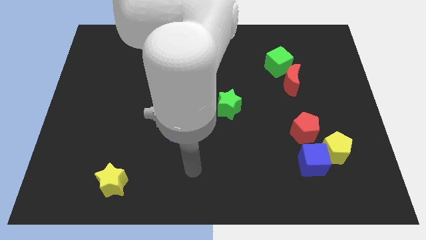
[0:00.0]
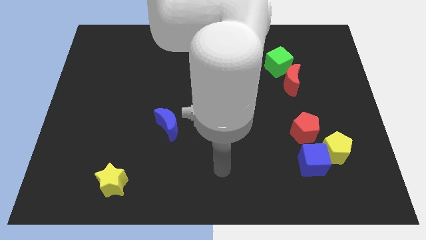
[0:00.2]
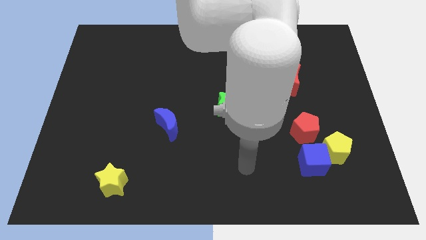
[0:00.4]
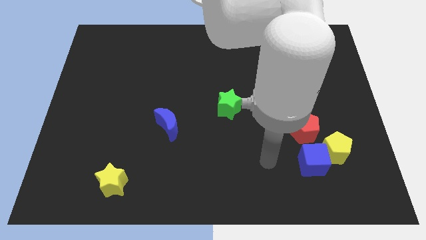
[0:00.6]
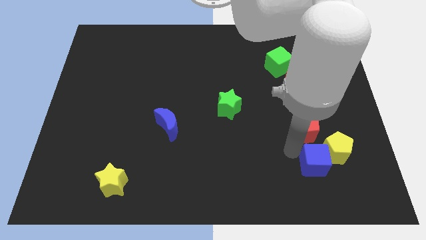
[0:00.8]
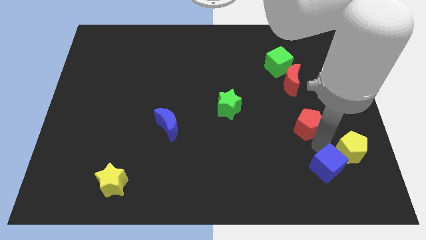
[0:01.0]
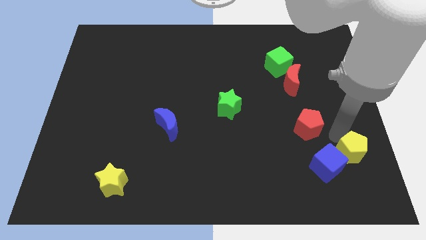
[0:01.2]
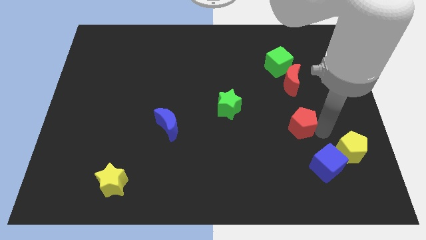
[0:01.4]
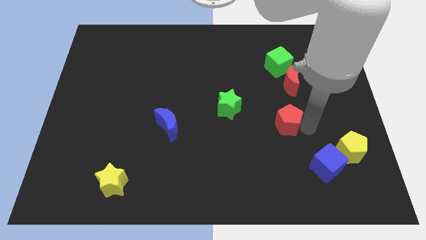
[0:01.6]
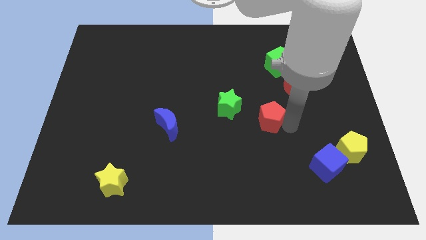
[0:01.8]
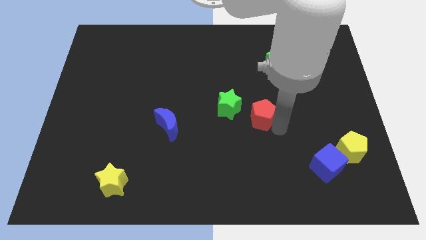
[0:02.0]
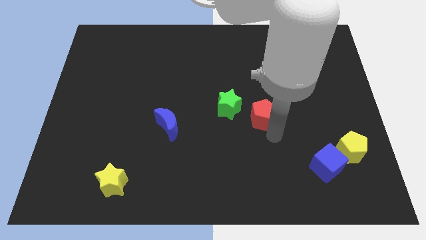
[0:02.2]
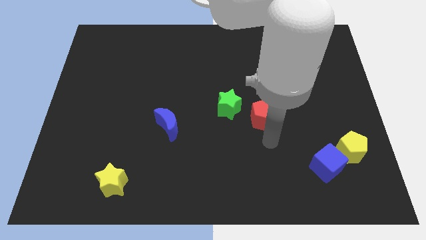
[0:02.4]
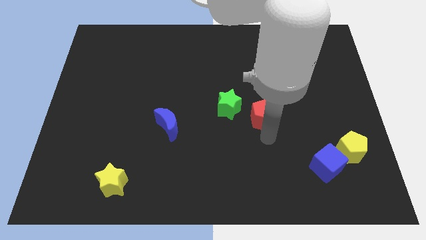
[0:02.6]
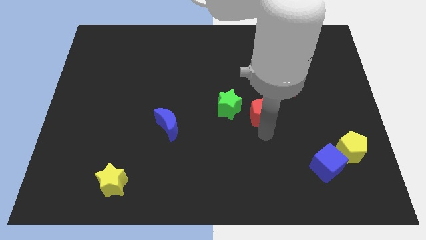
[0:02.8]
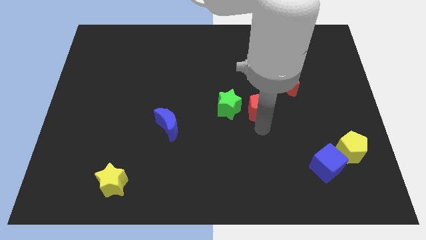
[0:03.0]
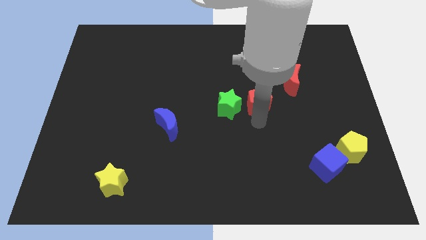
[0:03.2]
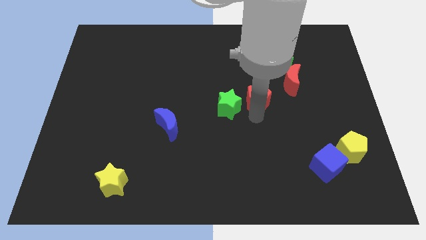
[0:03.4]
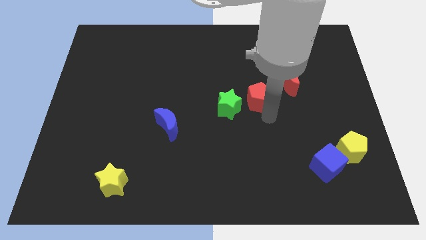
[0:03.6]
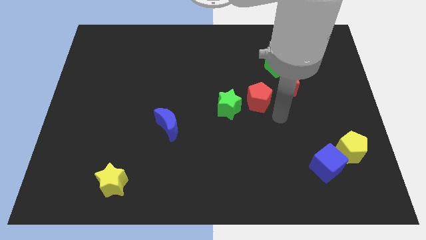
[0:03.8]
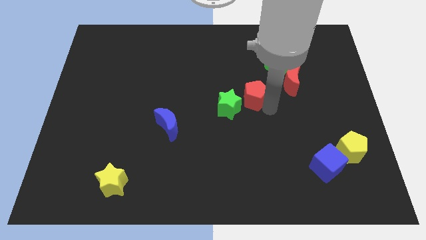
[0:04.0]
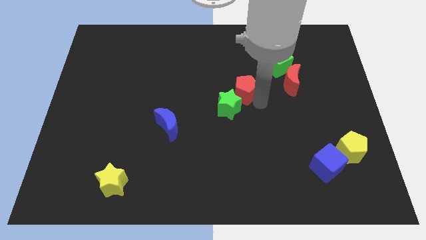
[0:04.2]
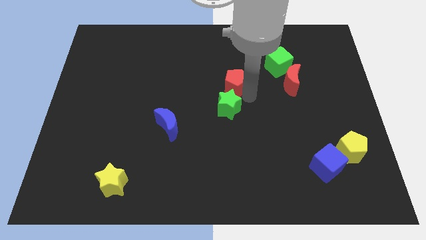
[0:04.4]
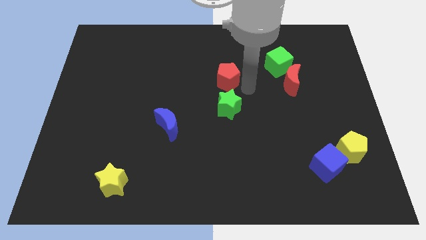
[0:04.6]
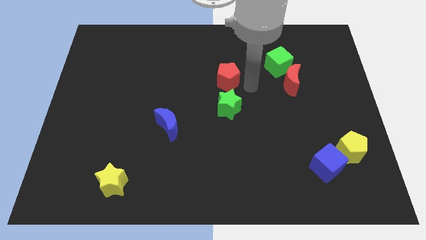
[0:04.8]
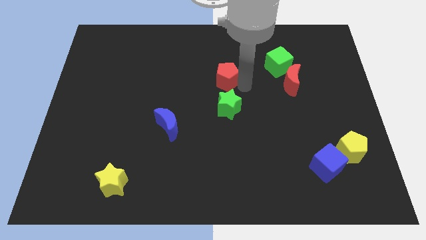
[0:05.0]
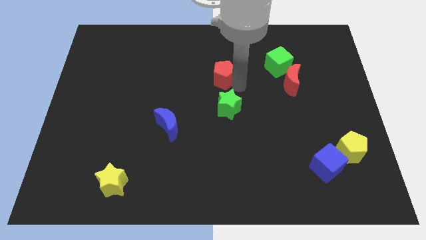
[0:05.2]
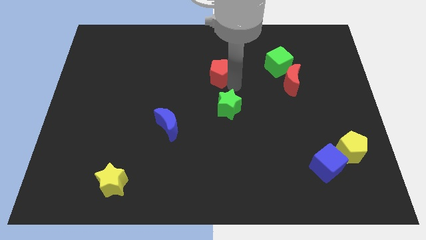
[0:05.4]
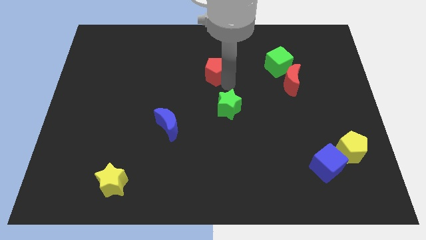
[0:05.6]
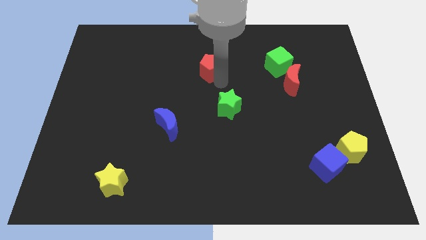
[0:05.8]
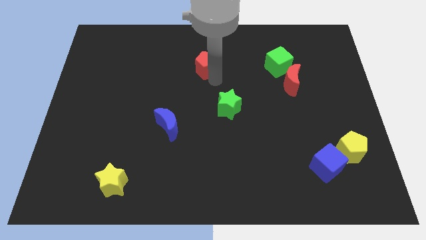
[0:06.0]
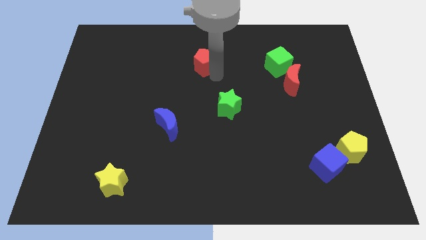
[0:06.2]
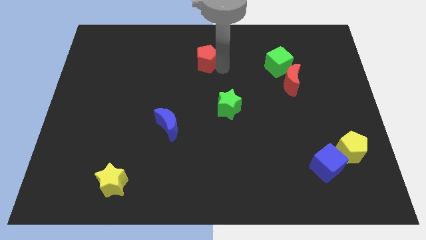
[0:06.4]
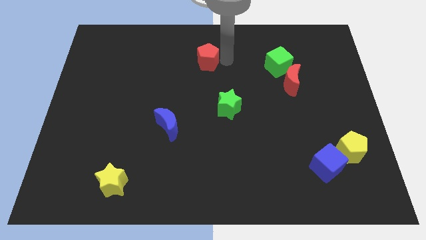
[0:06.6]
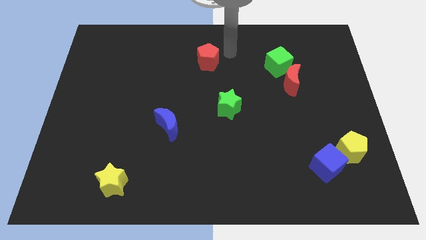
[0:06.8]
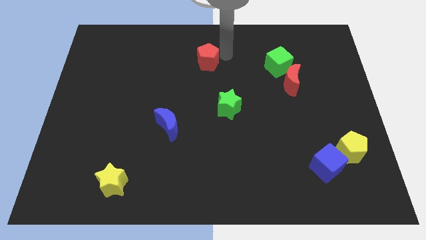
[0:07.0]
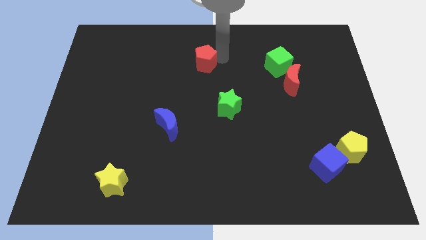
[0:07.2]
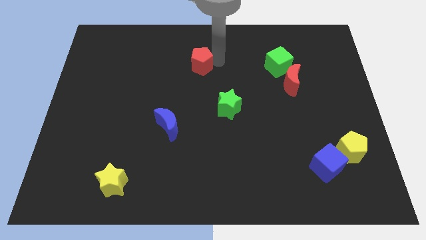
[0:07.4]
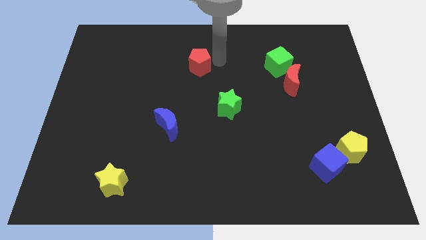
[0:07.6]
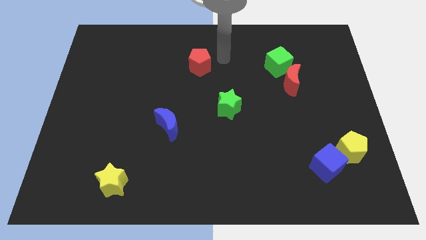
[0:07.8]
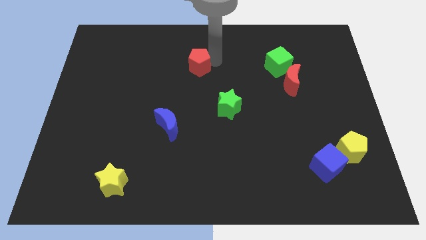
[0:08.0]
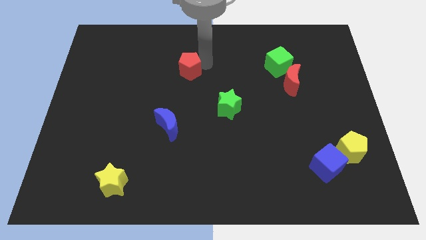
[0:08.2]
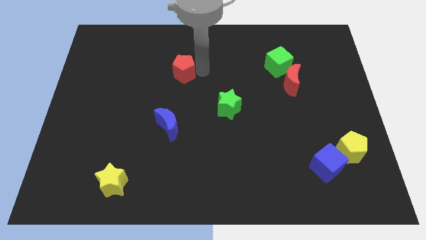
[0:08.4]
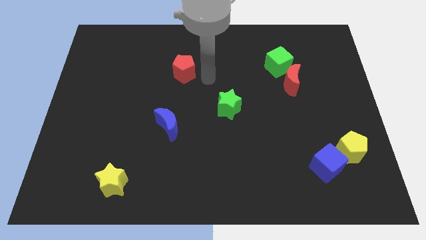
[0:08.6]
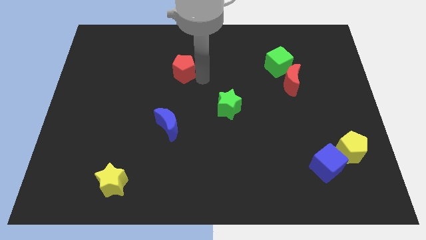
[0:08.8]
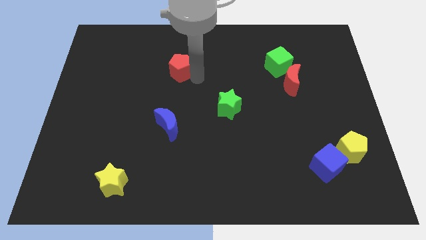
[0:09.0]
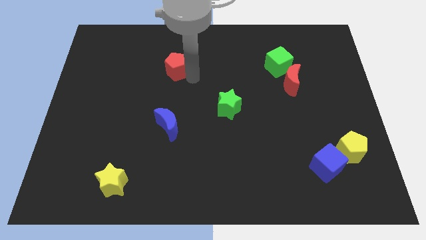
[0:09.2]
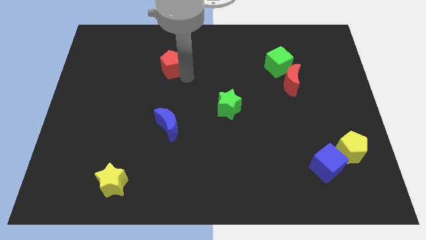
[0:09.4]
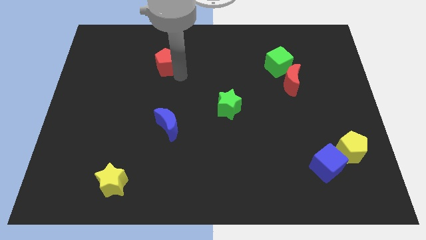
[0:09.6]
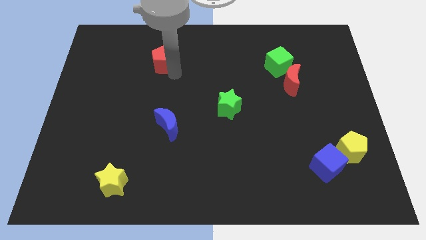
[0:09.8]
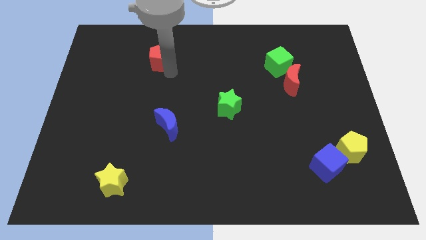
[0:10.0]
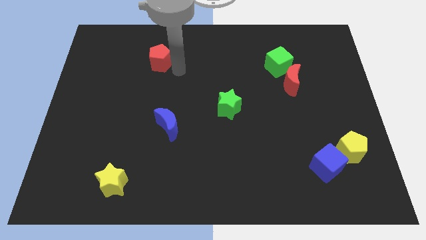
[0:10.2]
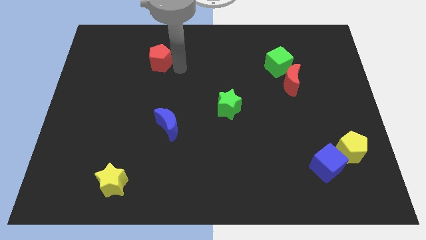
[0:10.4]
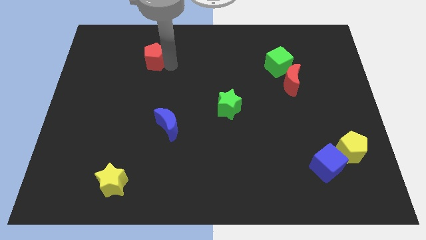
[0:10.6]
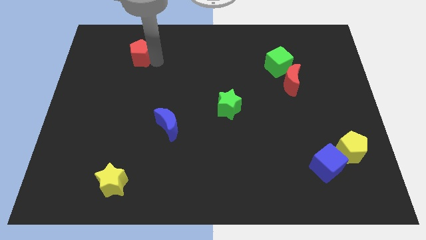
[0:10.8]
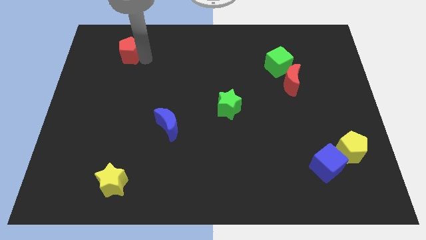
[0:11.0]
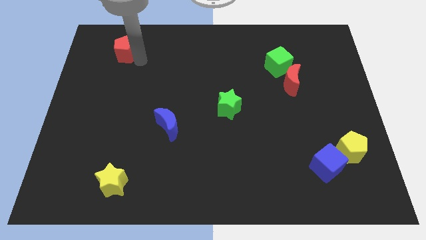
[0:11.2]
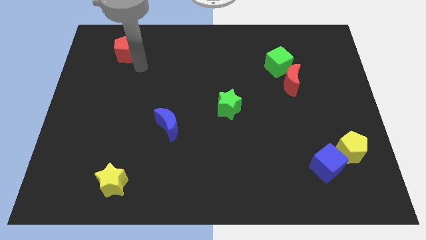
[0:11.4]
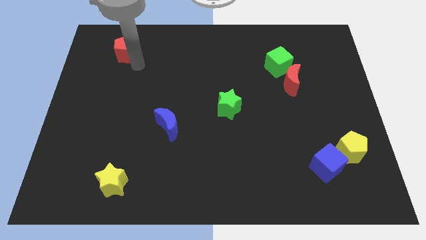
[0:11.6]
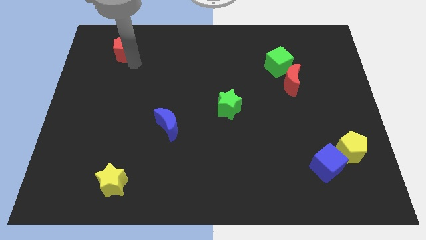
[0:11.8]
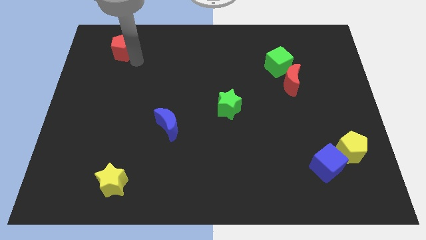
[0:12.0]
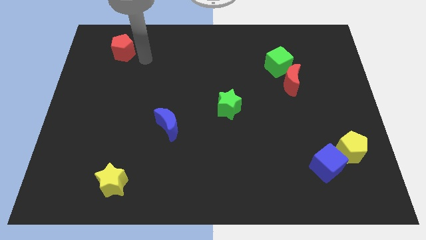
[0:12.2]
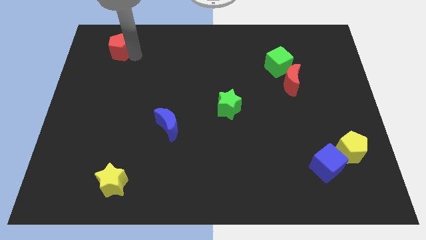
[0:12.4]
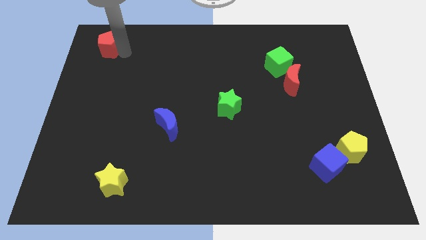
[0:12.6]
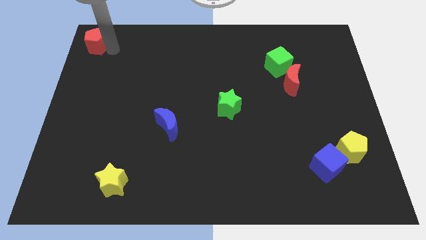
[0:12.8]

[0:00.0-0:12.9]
slide the red pentagon to the upper left corner
